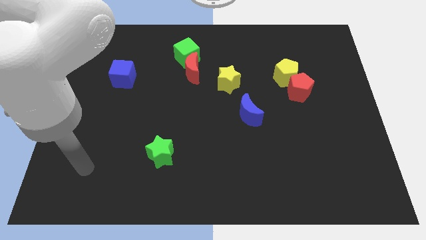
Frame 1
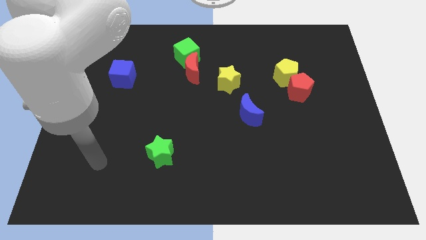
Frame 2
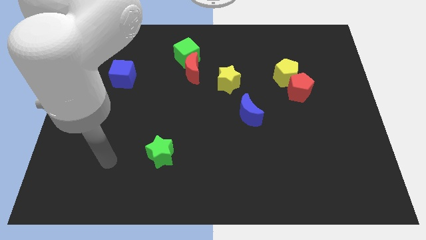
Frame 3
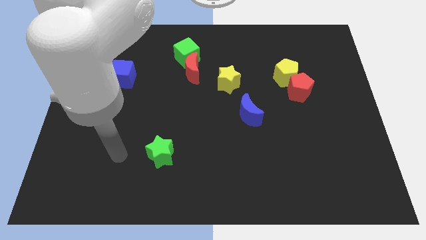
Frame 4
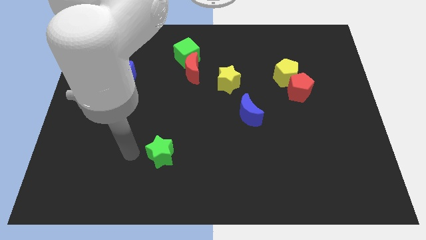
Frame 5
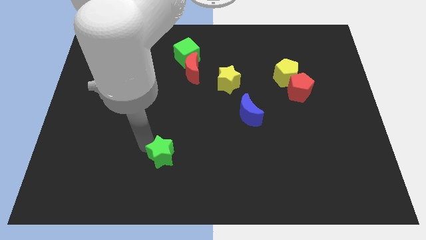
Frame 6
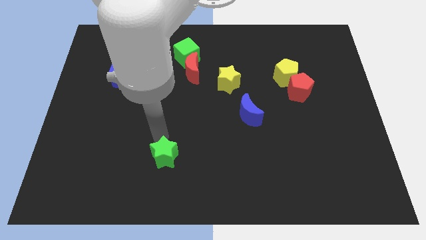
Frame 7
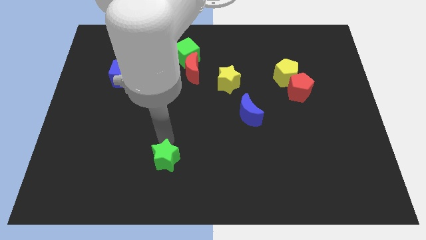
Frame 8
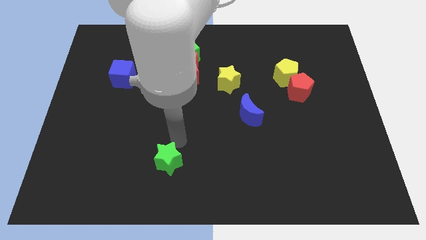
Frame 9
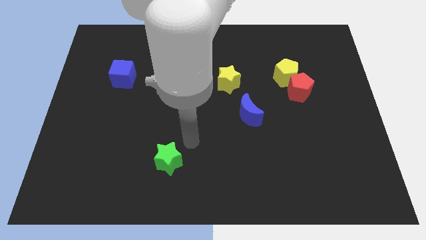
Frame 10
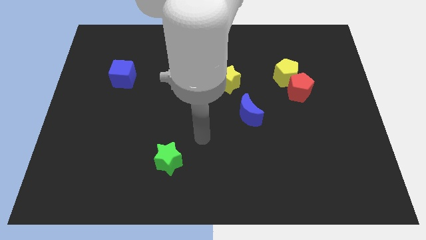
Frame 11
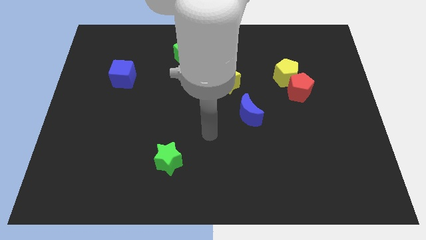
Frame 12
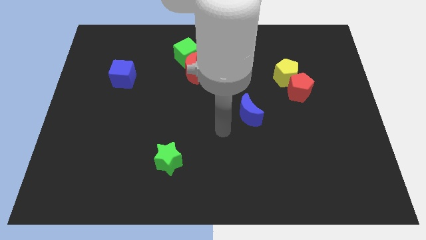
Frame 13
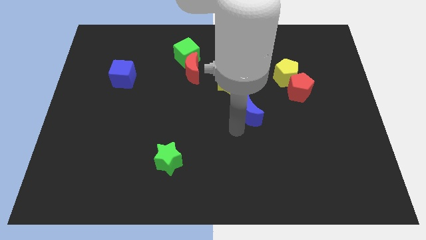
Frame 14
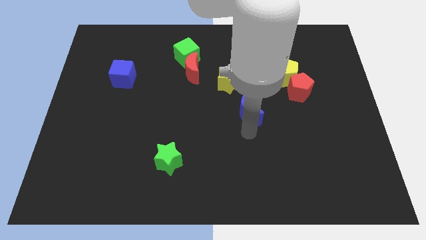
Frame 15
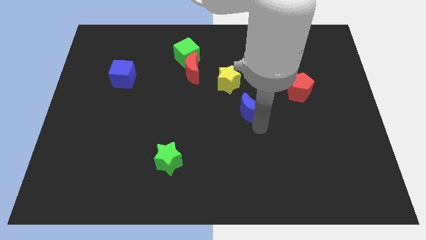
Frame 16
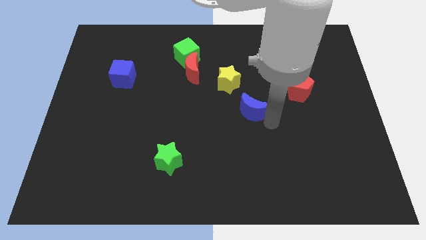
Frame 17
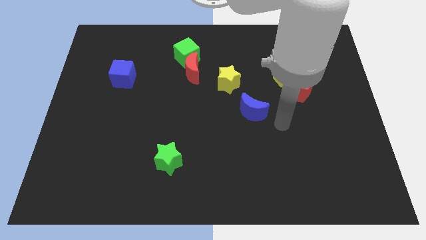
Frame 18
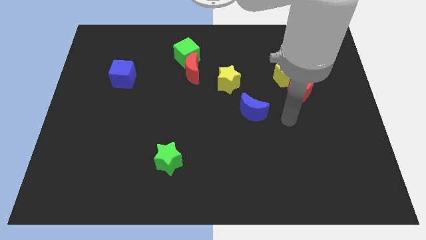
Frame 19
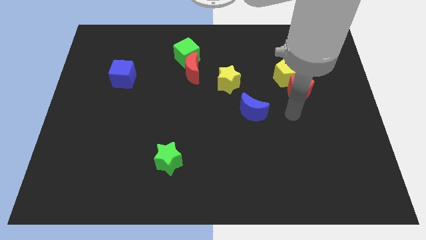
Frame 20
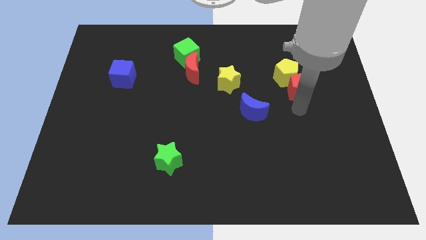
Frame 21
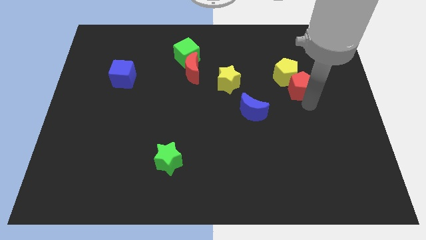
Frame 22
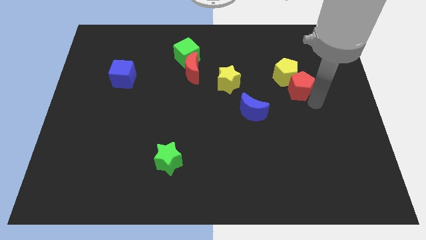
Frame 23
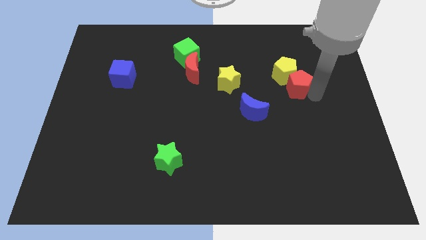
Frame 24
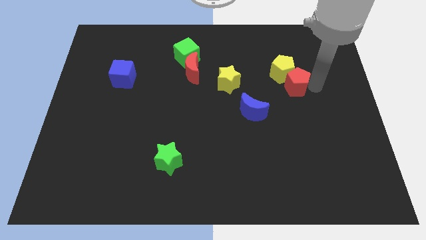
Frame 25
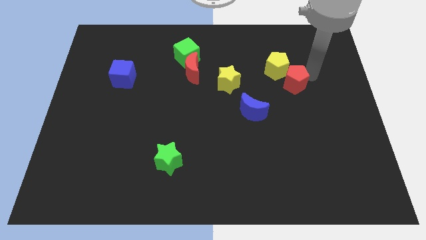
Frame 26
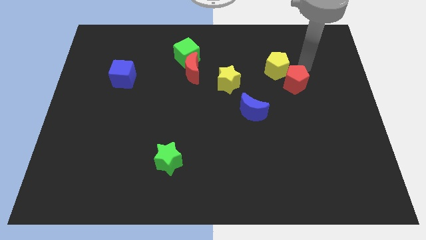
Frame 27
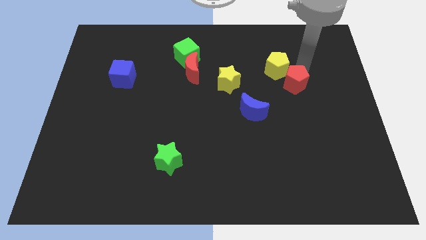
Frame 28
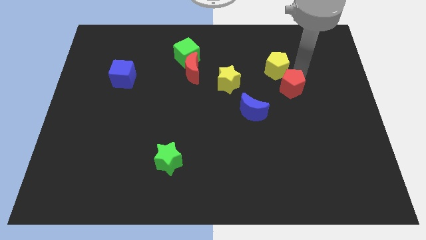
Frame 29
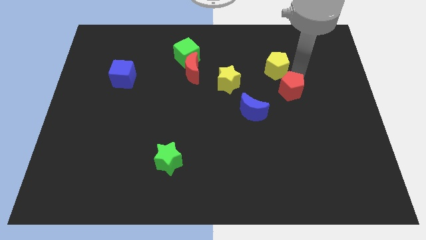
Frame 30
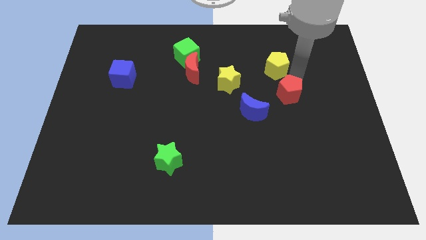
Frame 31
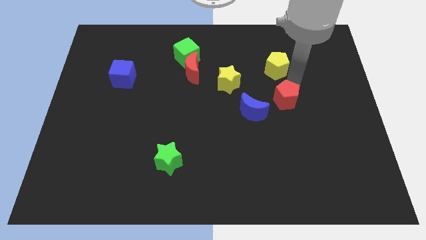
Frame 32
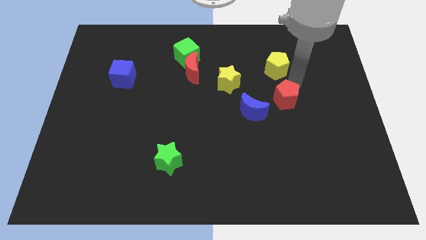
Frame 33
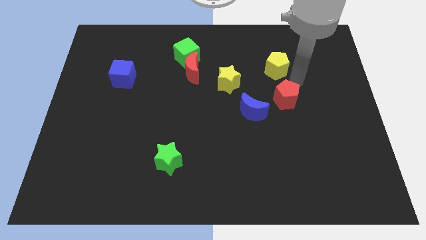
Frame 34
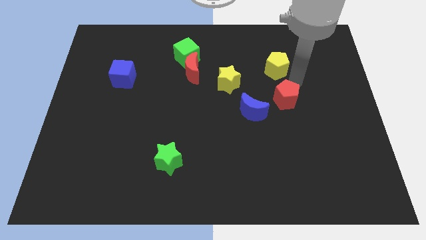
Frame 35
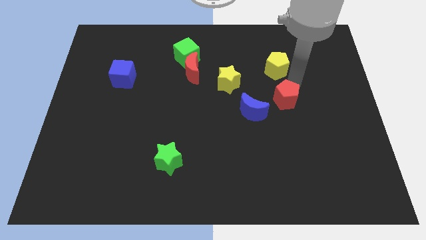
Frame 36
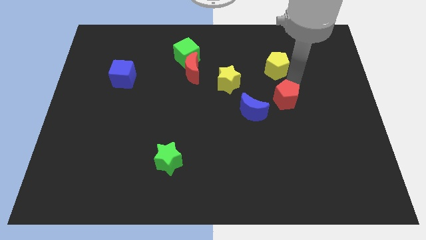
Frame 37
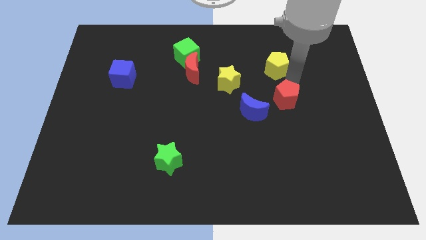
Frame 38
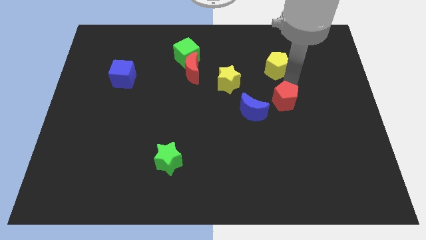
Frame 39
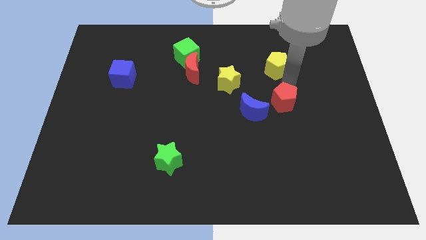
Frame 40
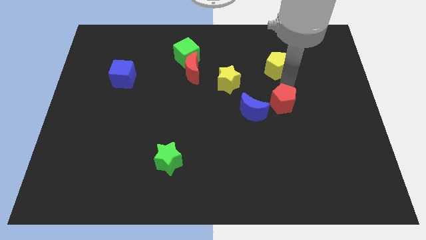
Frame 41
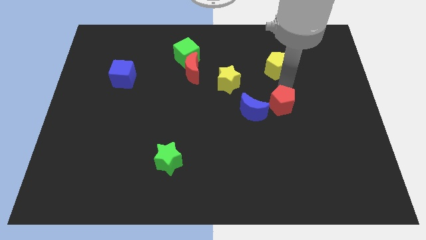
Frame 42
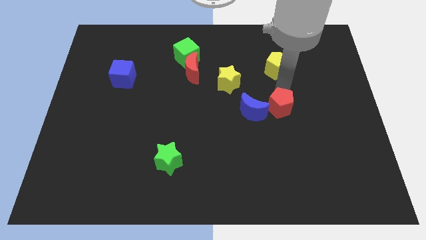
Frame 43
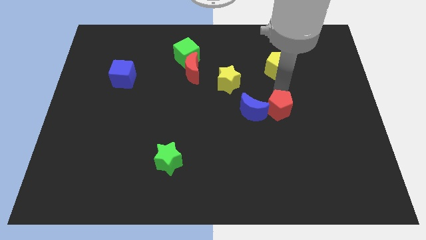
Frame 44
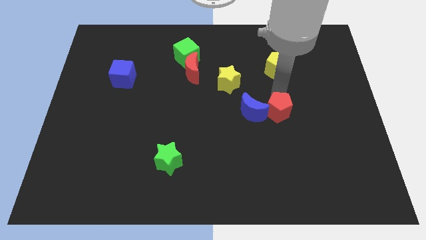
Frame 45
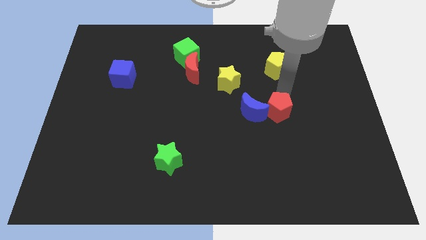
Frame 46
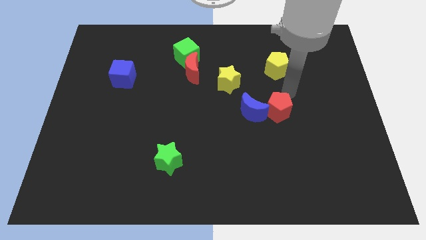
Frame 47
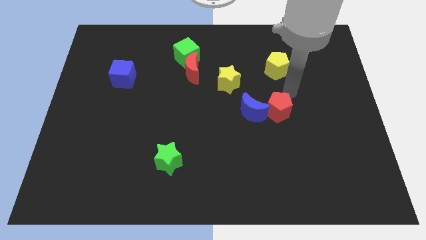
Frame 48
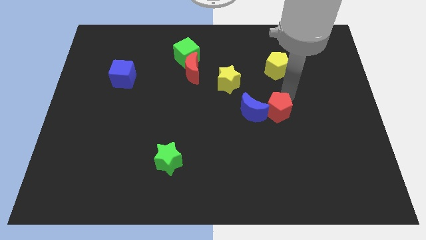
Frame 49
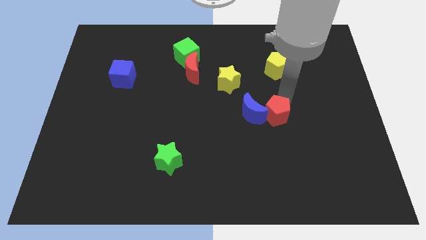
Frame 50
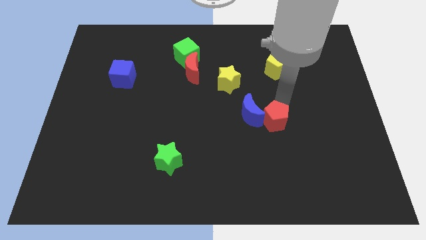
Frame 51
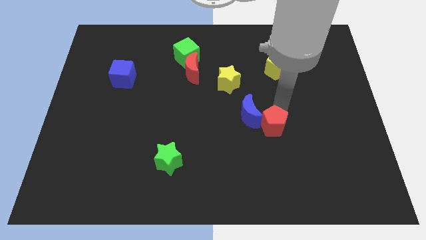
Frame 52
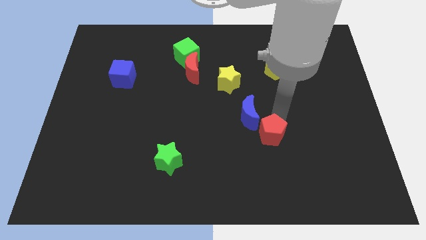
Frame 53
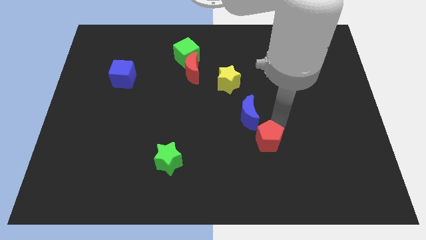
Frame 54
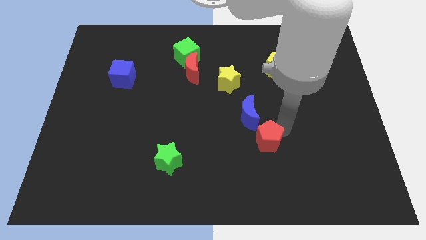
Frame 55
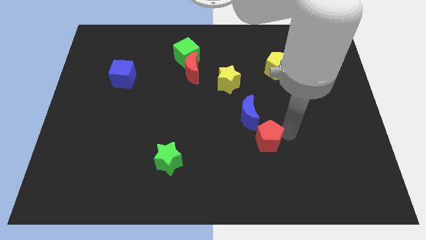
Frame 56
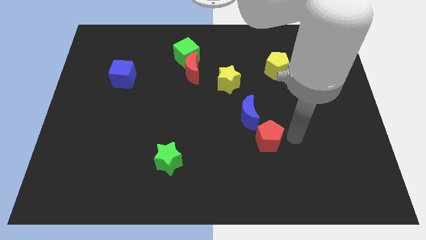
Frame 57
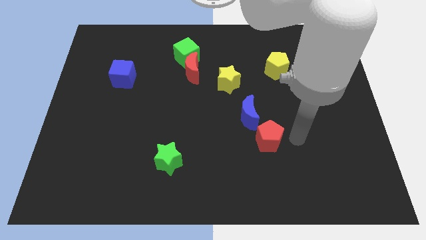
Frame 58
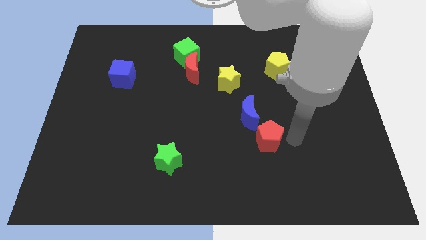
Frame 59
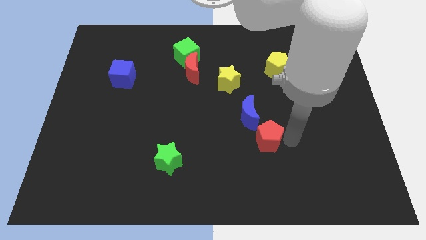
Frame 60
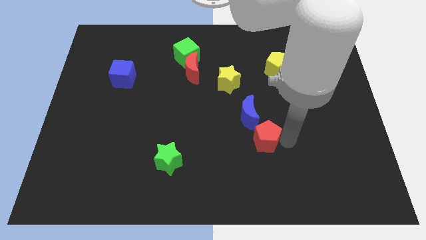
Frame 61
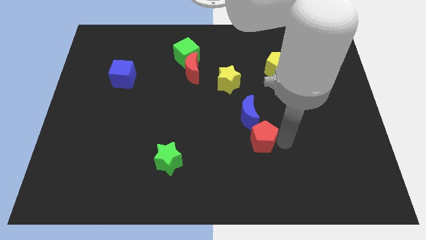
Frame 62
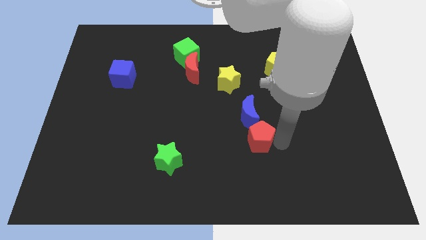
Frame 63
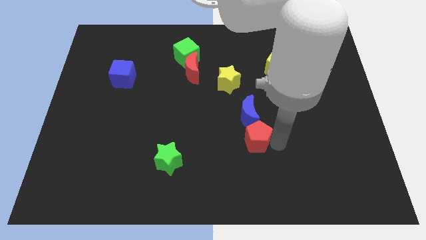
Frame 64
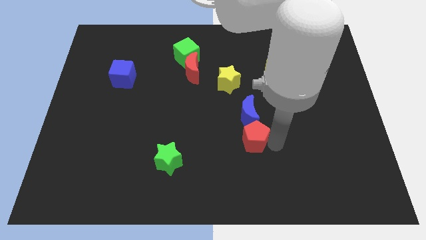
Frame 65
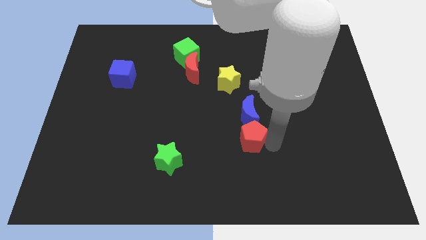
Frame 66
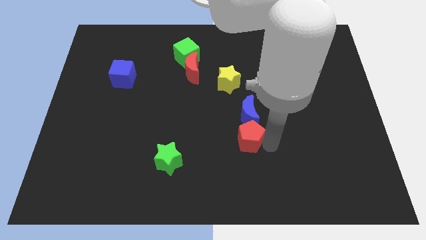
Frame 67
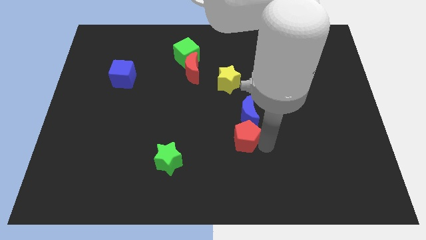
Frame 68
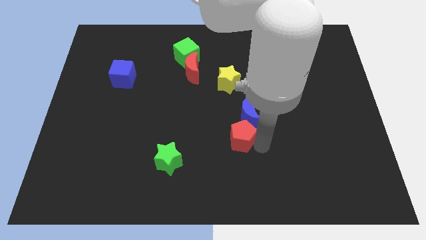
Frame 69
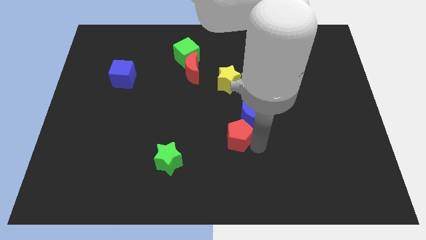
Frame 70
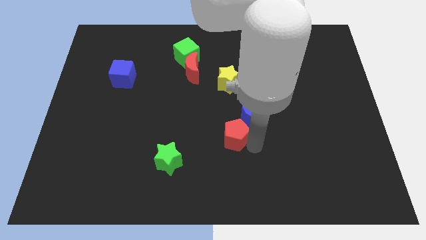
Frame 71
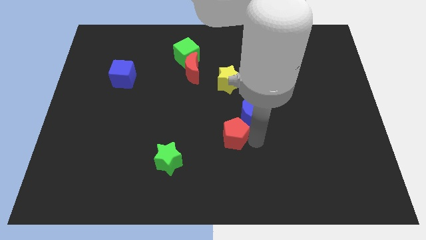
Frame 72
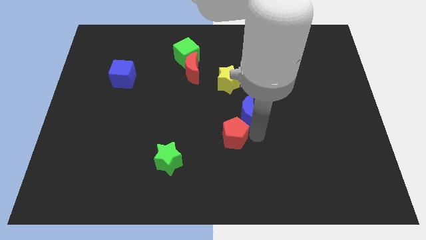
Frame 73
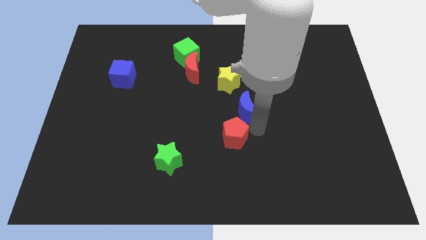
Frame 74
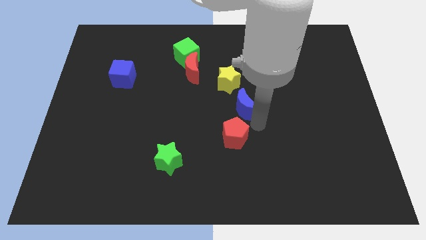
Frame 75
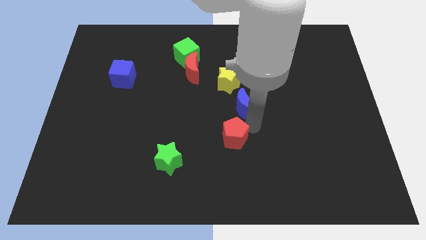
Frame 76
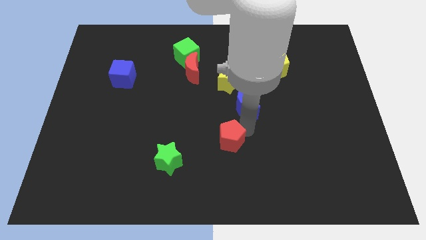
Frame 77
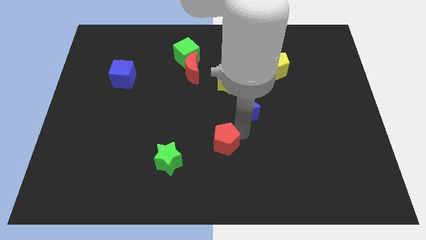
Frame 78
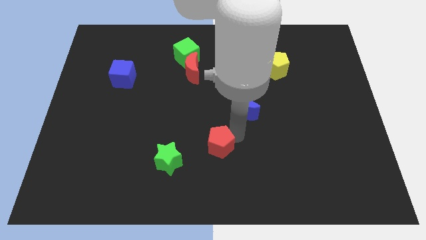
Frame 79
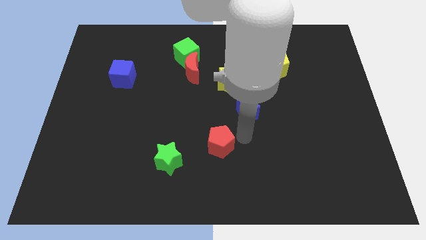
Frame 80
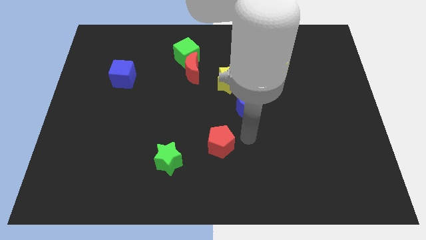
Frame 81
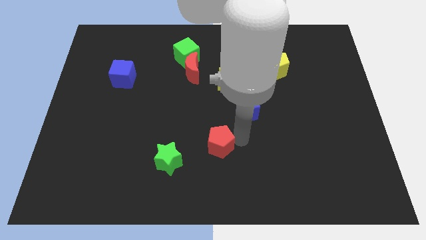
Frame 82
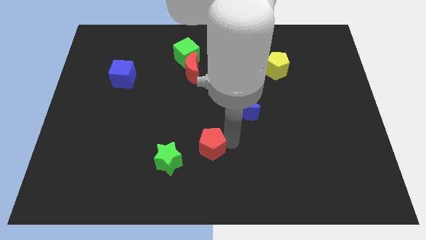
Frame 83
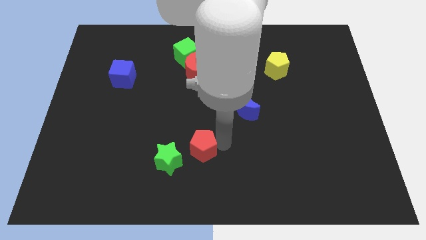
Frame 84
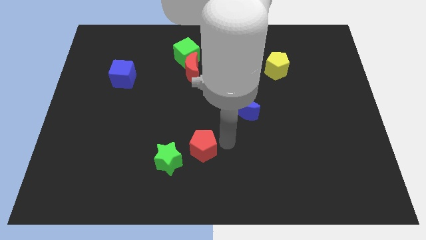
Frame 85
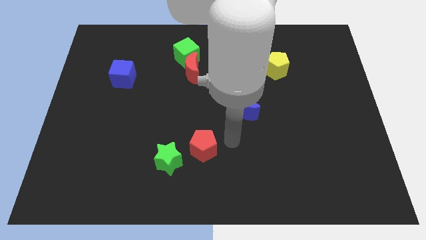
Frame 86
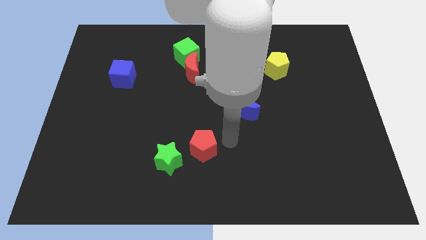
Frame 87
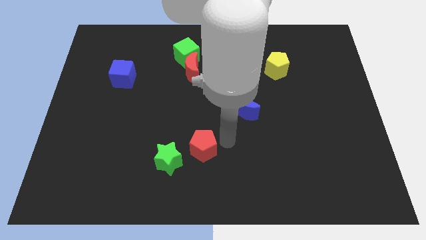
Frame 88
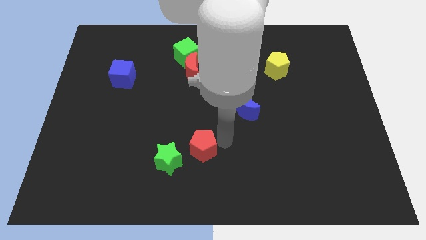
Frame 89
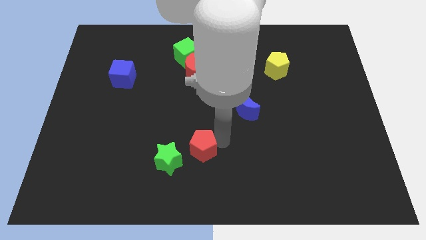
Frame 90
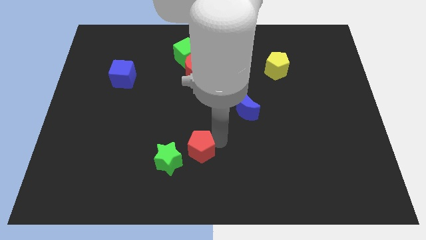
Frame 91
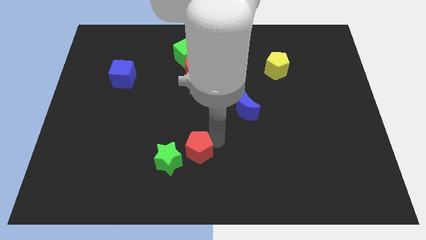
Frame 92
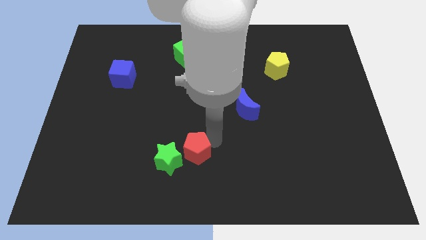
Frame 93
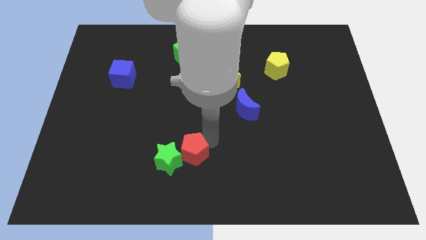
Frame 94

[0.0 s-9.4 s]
move the red pentagon close to the green star
